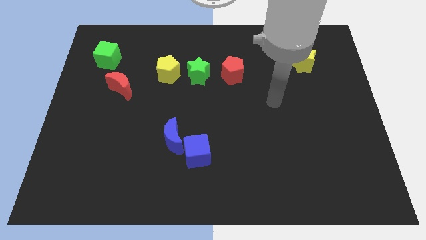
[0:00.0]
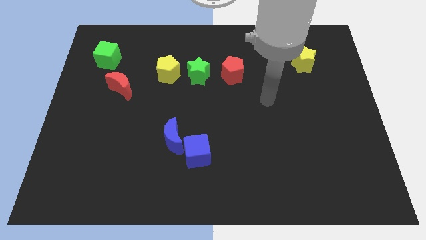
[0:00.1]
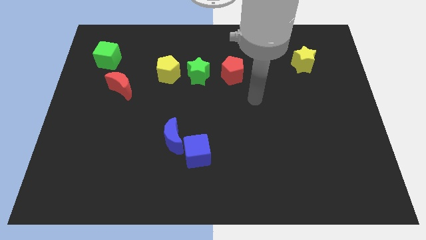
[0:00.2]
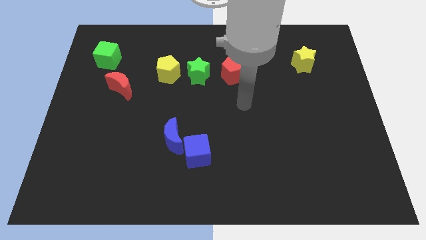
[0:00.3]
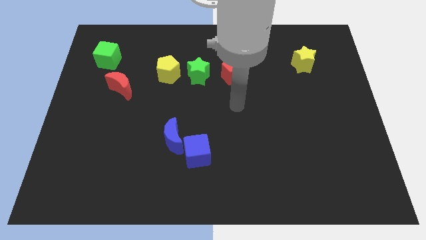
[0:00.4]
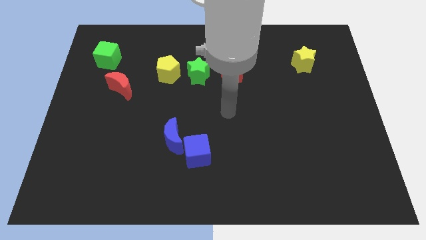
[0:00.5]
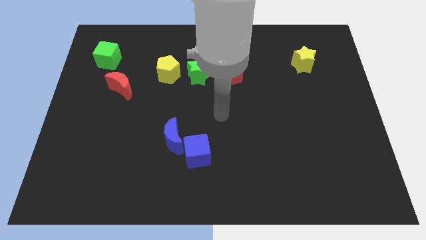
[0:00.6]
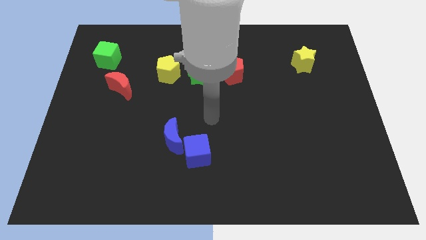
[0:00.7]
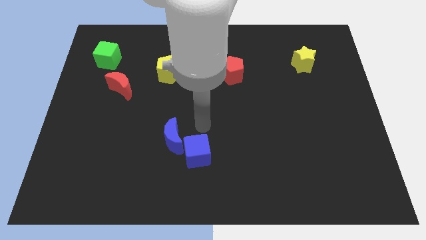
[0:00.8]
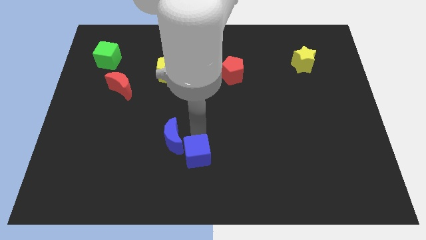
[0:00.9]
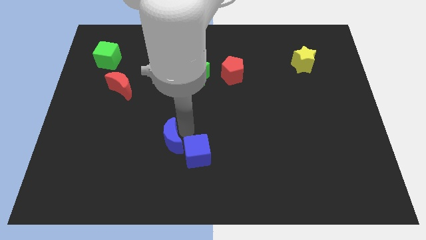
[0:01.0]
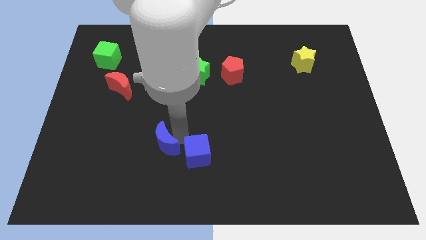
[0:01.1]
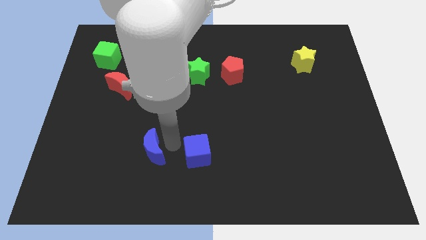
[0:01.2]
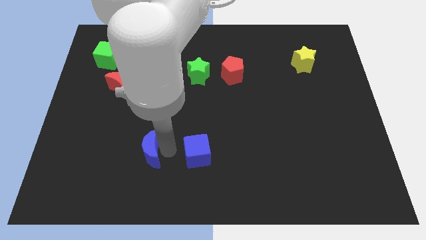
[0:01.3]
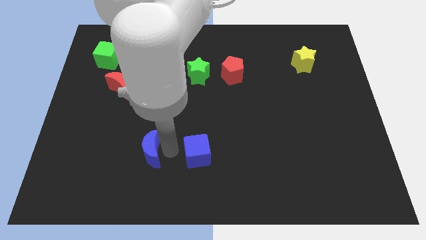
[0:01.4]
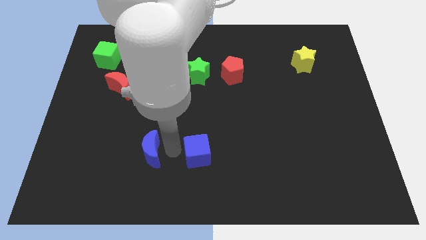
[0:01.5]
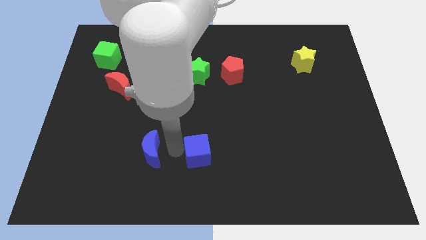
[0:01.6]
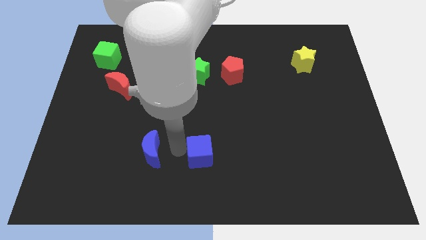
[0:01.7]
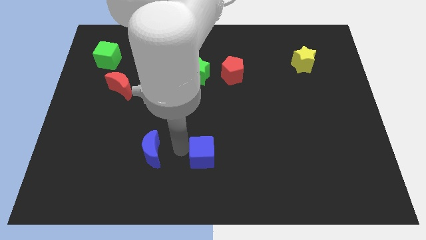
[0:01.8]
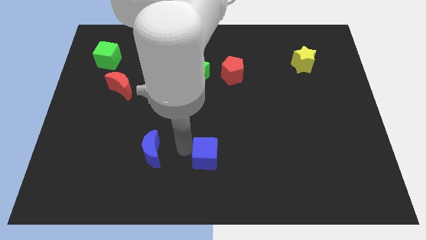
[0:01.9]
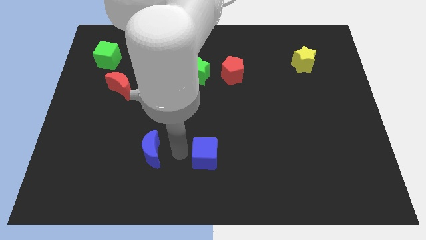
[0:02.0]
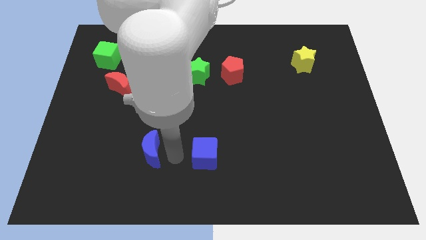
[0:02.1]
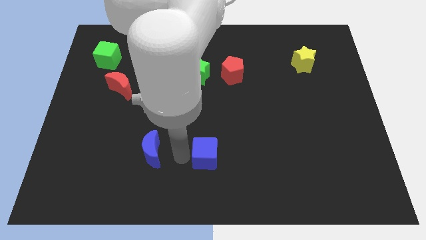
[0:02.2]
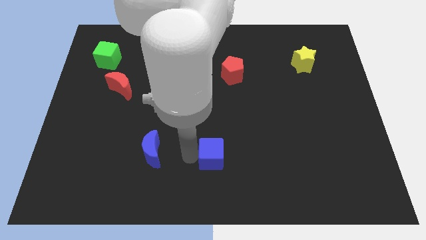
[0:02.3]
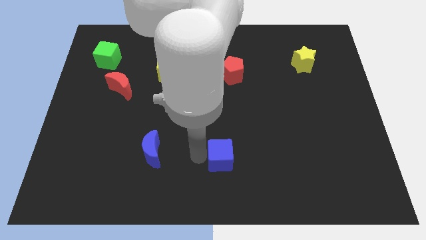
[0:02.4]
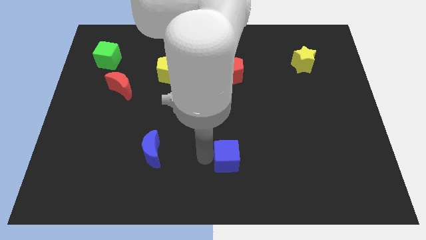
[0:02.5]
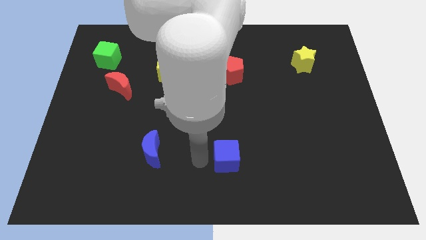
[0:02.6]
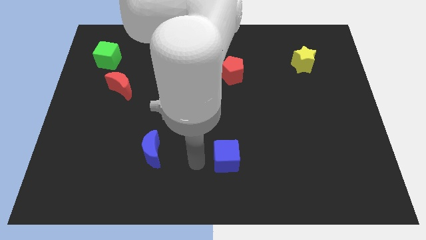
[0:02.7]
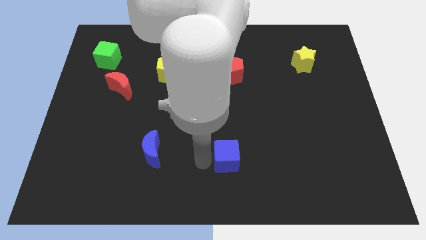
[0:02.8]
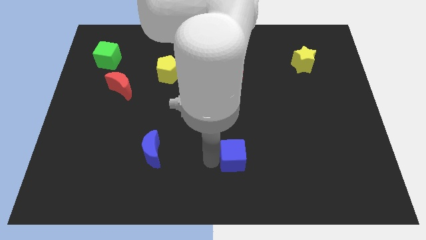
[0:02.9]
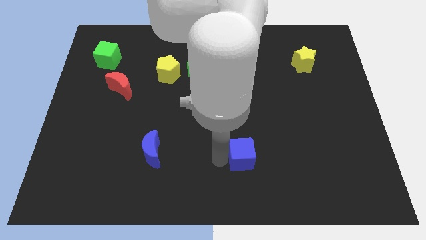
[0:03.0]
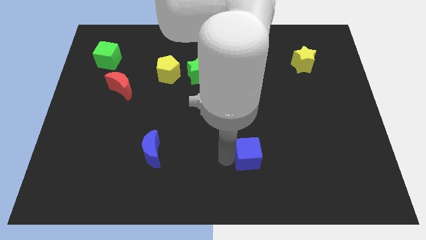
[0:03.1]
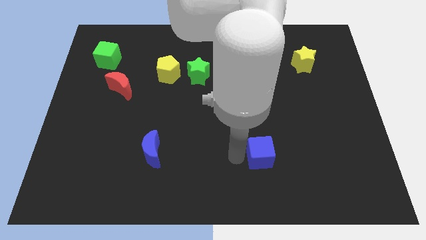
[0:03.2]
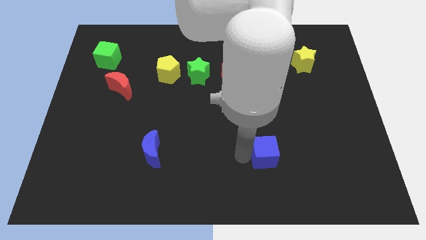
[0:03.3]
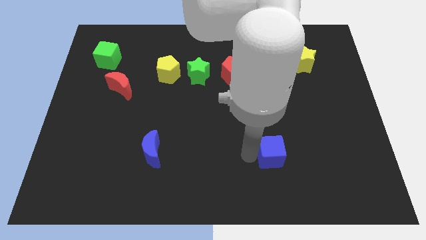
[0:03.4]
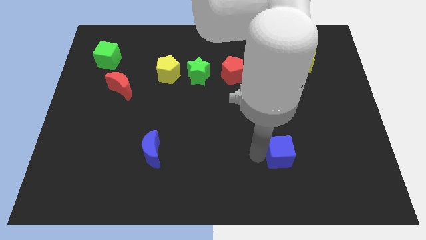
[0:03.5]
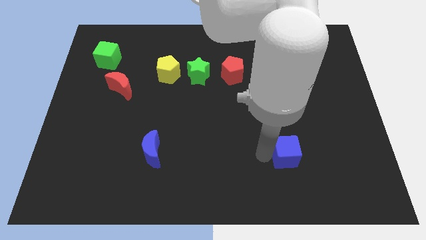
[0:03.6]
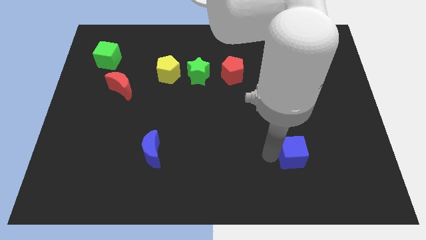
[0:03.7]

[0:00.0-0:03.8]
push the blue cube right

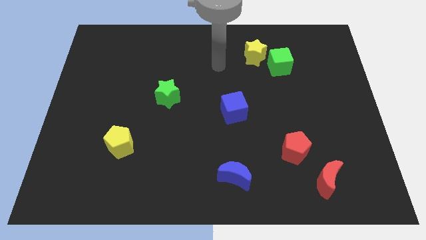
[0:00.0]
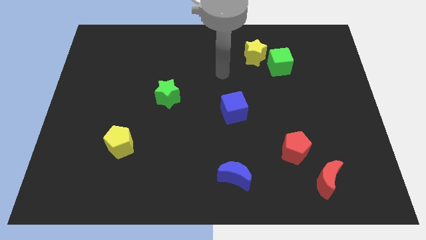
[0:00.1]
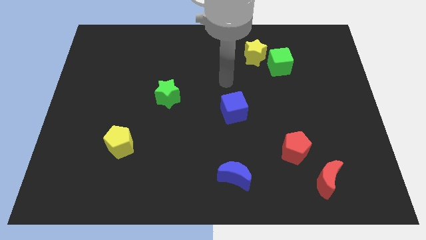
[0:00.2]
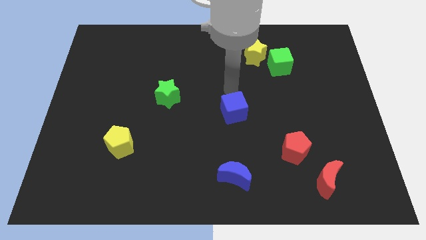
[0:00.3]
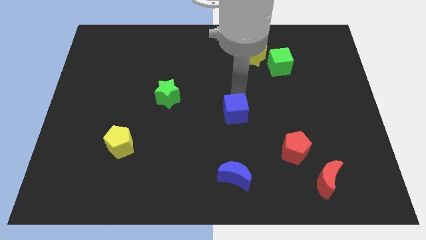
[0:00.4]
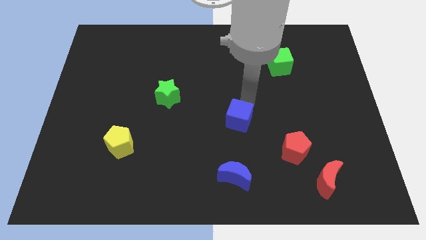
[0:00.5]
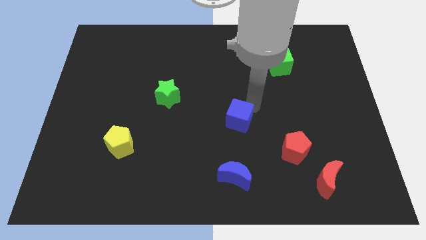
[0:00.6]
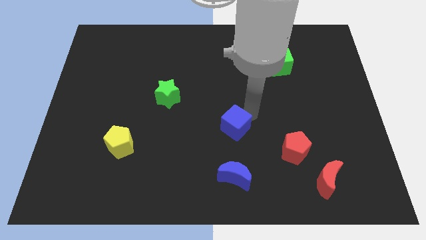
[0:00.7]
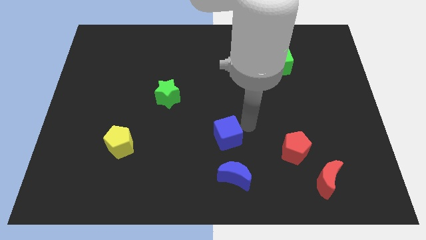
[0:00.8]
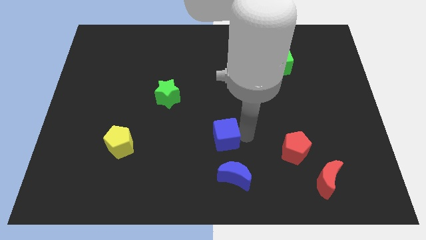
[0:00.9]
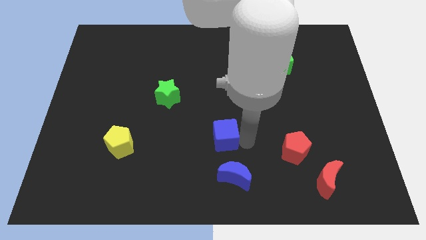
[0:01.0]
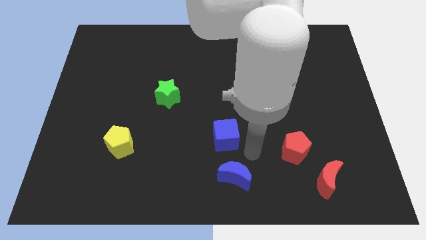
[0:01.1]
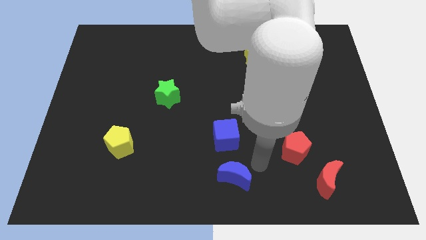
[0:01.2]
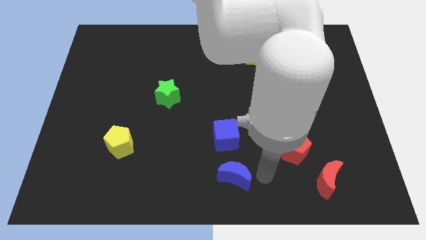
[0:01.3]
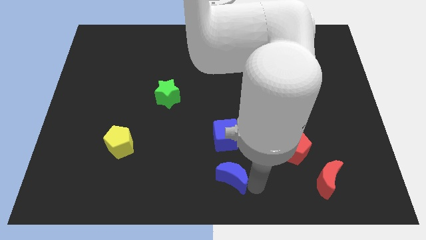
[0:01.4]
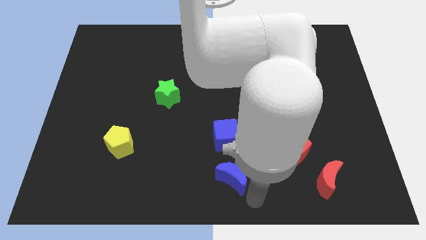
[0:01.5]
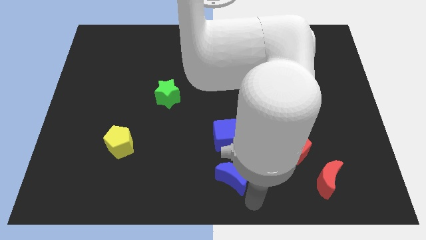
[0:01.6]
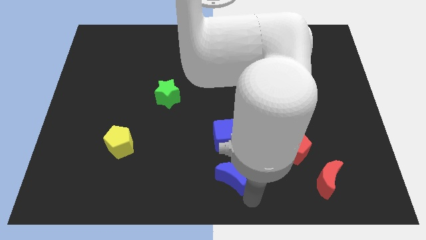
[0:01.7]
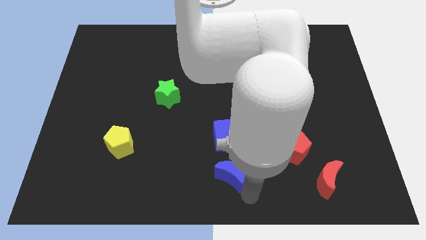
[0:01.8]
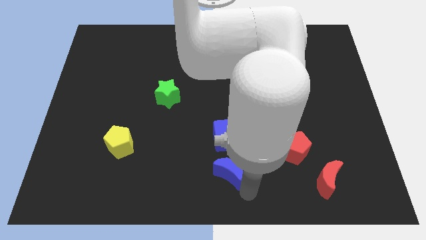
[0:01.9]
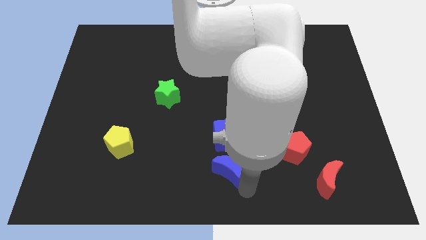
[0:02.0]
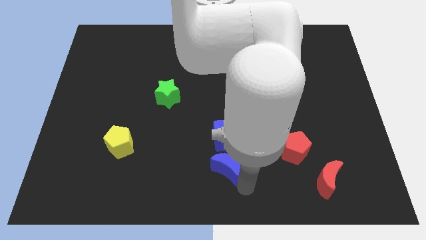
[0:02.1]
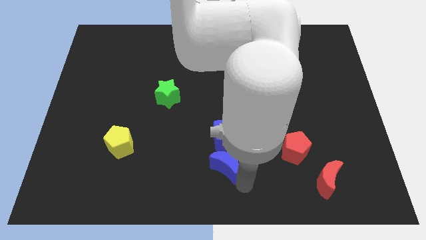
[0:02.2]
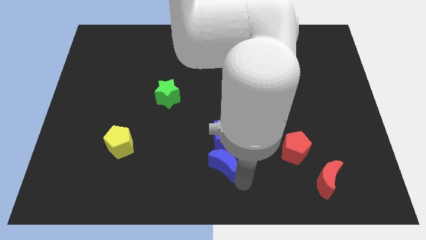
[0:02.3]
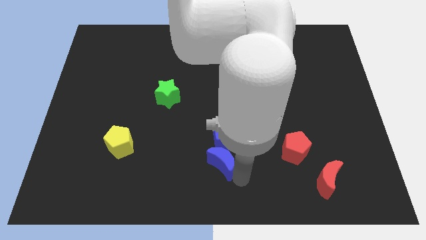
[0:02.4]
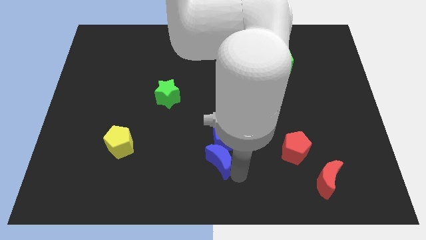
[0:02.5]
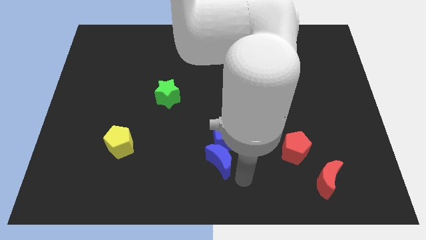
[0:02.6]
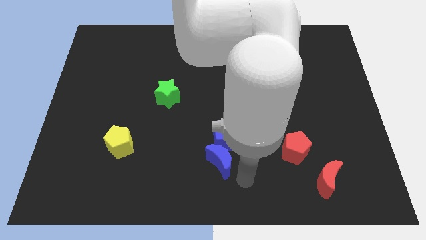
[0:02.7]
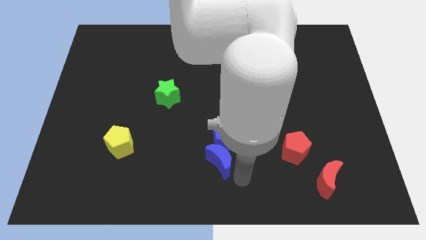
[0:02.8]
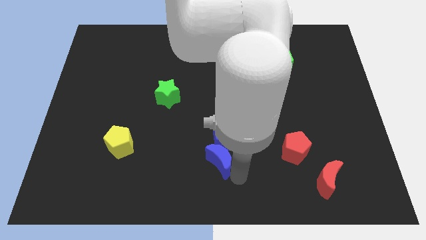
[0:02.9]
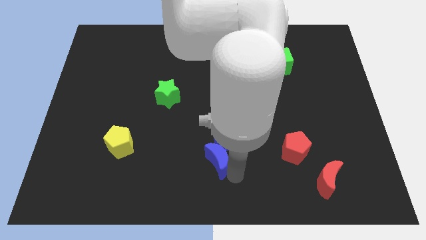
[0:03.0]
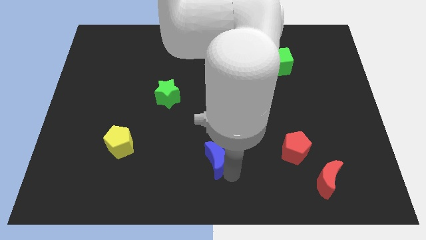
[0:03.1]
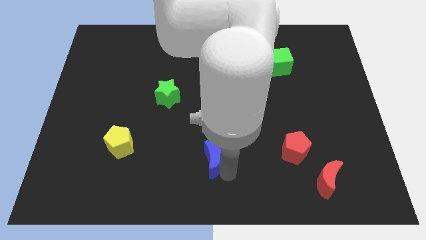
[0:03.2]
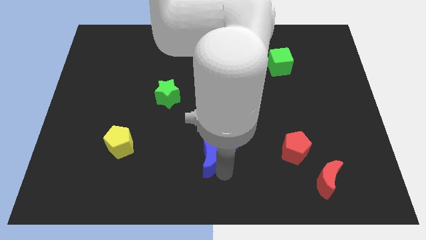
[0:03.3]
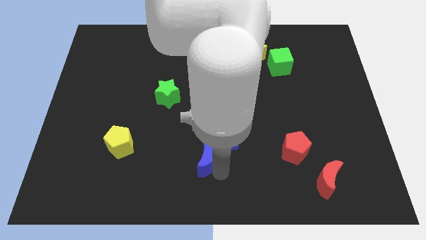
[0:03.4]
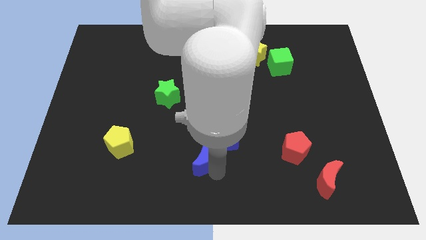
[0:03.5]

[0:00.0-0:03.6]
slide the blue moon up and then left slightly

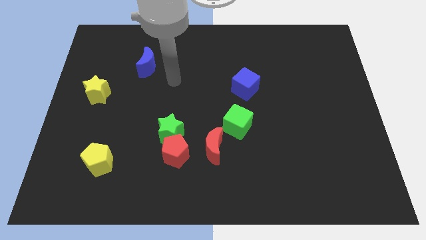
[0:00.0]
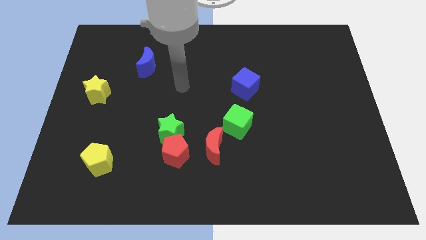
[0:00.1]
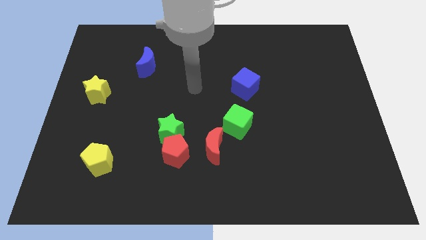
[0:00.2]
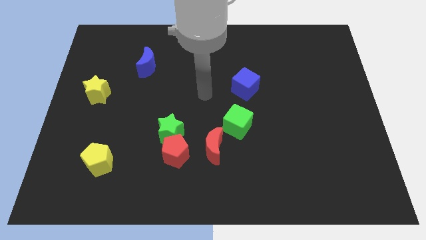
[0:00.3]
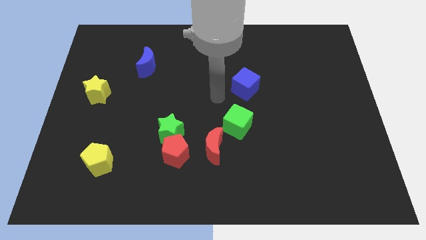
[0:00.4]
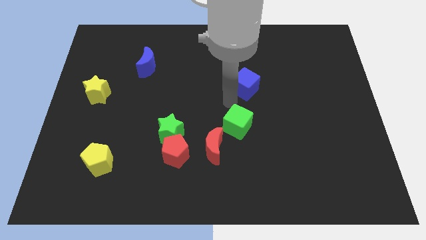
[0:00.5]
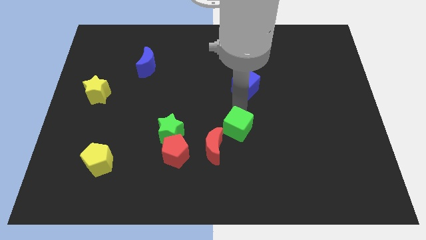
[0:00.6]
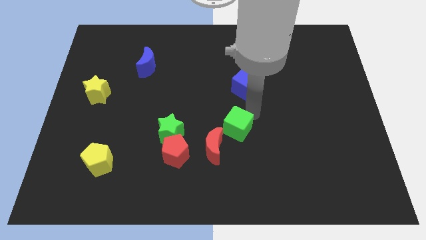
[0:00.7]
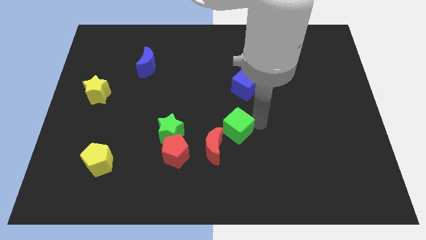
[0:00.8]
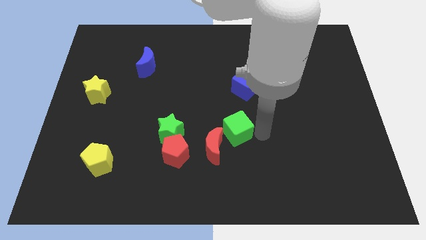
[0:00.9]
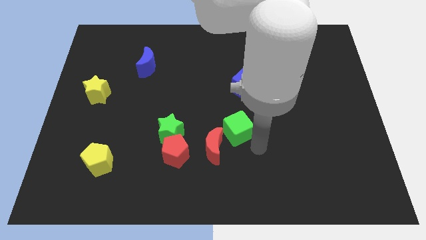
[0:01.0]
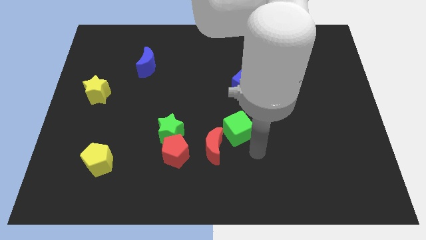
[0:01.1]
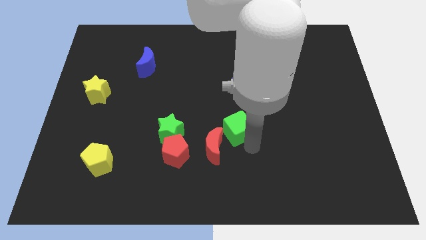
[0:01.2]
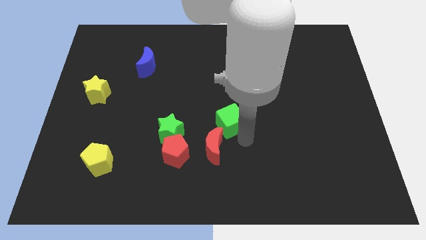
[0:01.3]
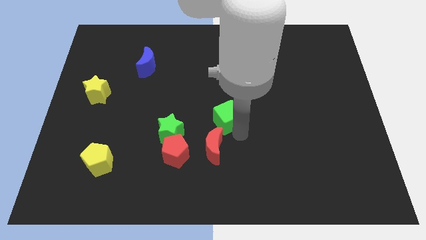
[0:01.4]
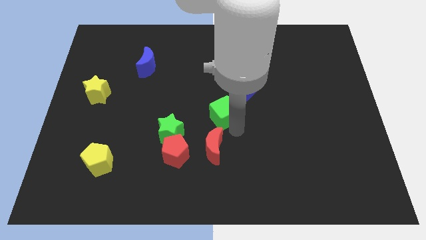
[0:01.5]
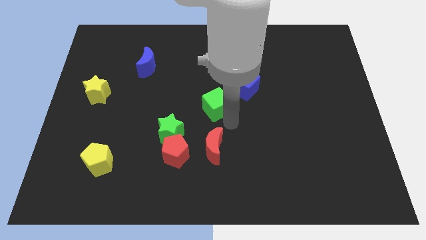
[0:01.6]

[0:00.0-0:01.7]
move the green cube a little bit up and to the left
